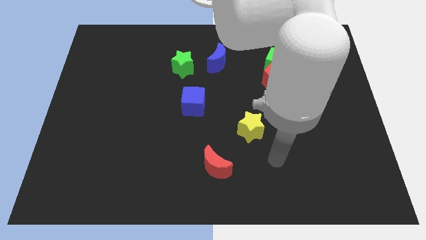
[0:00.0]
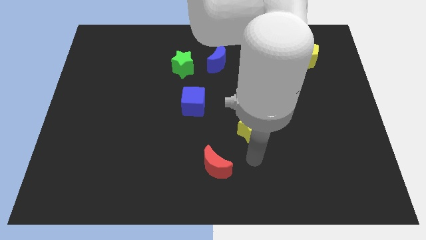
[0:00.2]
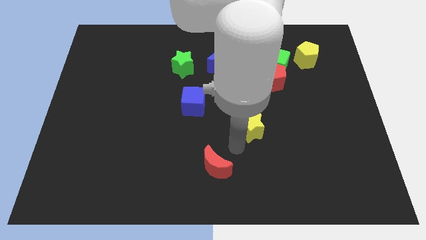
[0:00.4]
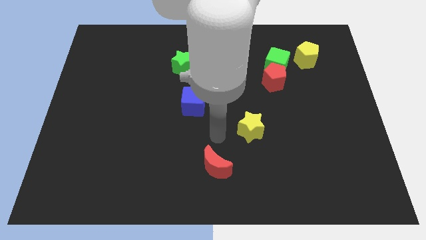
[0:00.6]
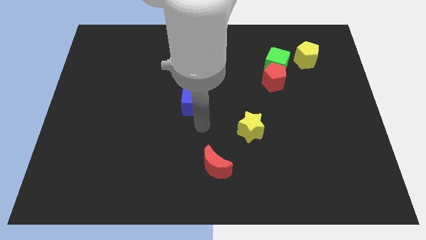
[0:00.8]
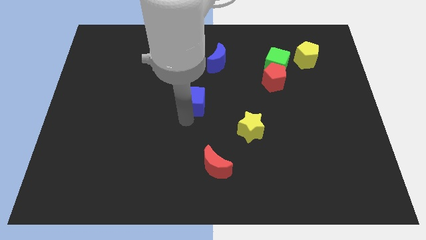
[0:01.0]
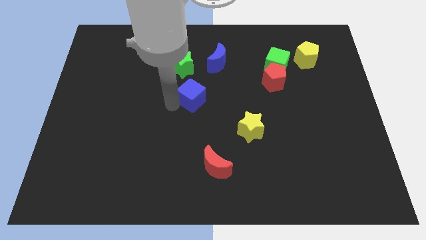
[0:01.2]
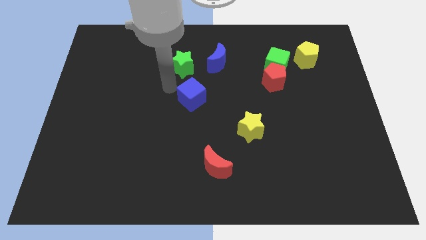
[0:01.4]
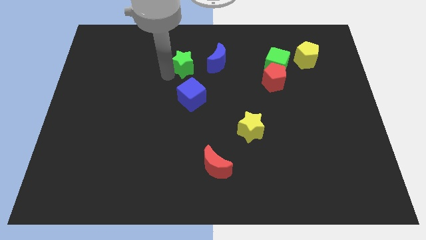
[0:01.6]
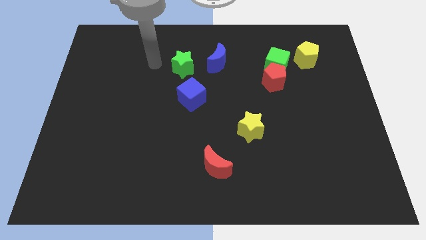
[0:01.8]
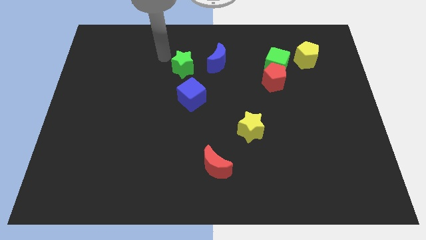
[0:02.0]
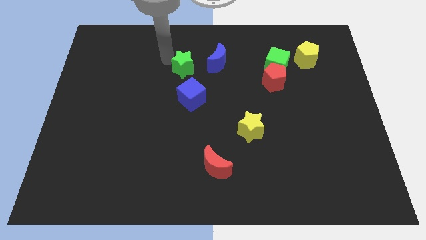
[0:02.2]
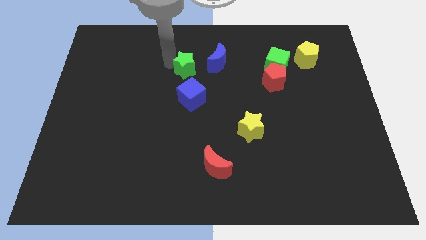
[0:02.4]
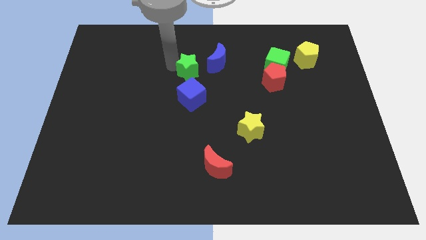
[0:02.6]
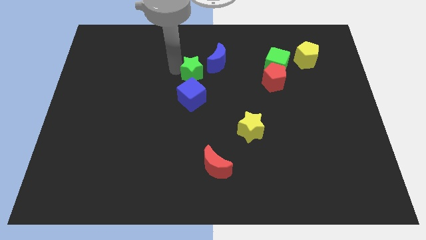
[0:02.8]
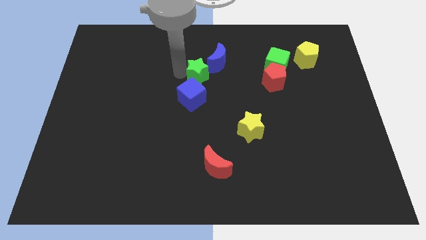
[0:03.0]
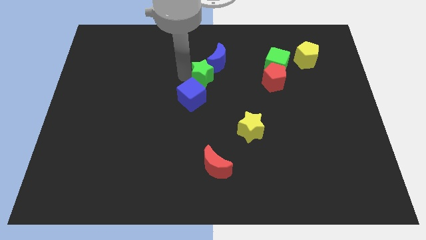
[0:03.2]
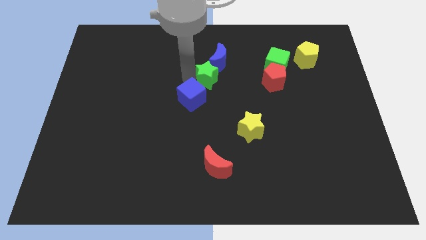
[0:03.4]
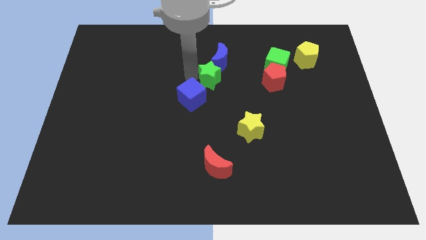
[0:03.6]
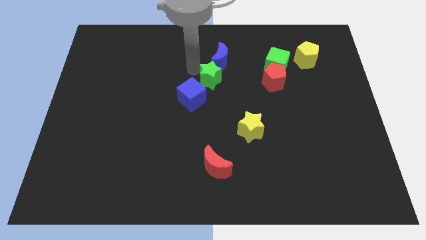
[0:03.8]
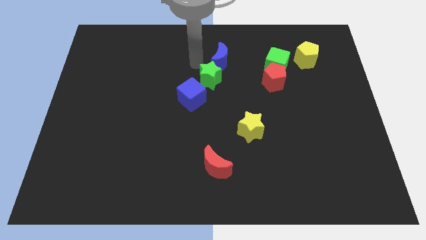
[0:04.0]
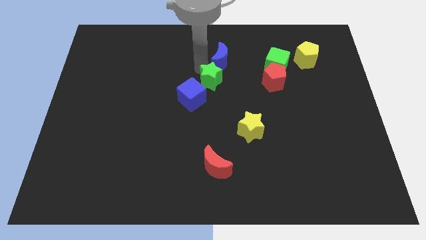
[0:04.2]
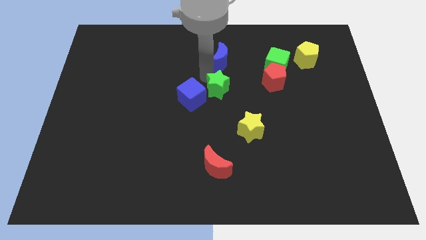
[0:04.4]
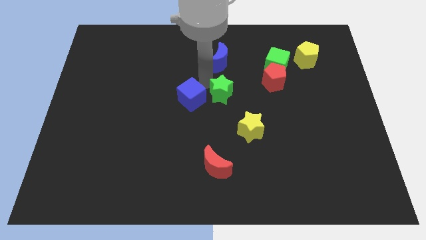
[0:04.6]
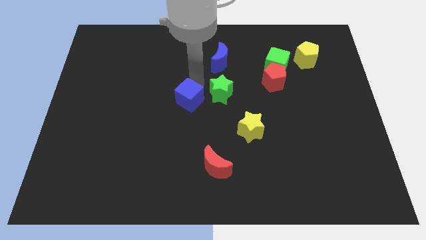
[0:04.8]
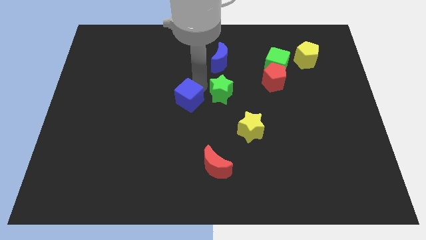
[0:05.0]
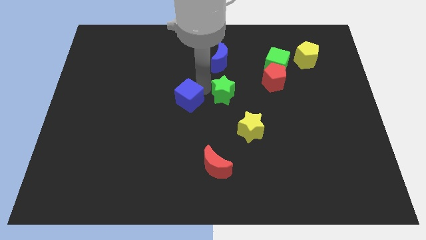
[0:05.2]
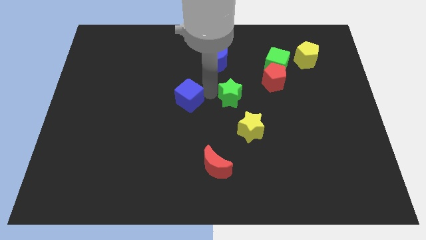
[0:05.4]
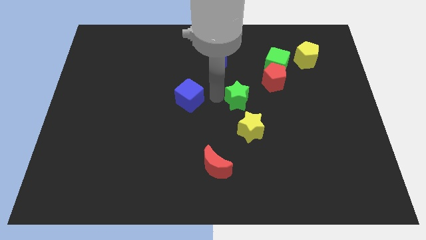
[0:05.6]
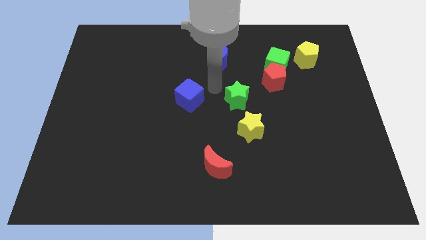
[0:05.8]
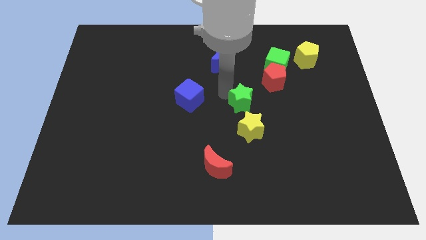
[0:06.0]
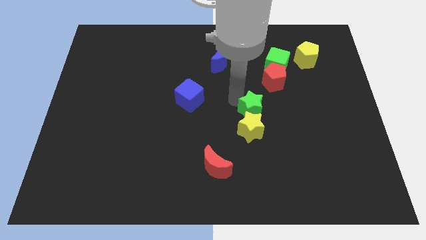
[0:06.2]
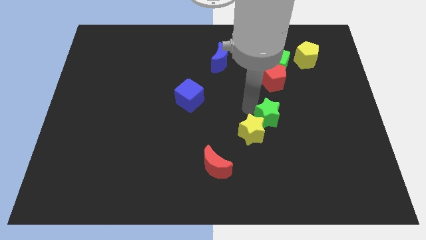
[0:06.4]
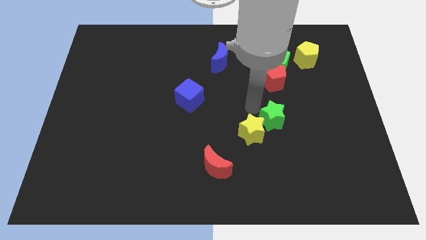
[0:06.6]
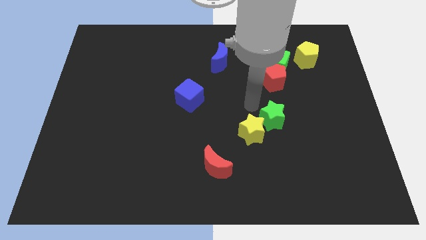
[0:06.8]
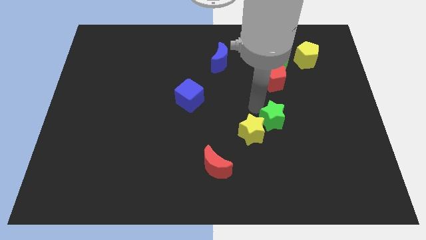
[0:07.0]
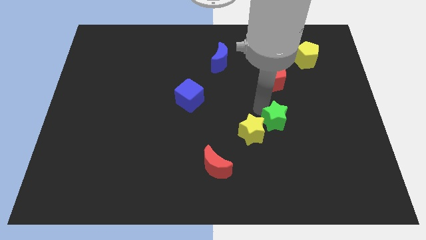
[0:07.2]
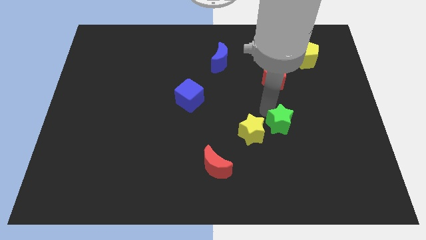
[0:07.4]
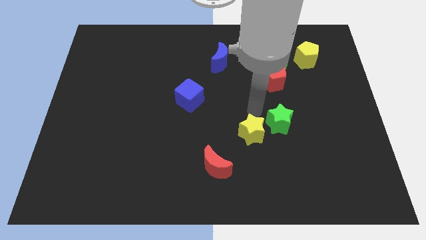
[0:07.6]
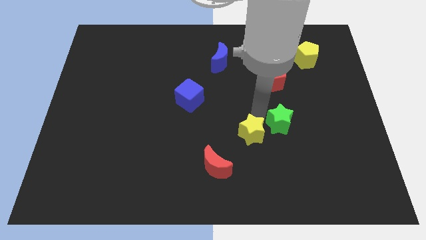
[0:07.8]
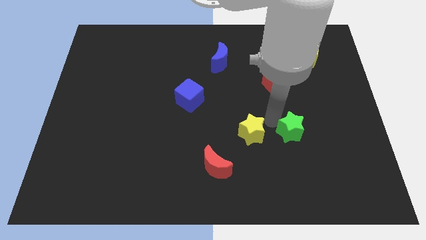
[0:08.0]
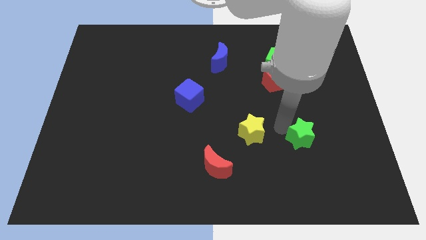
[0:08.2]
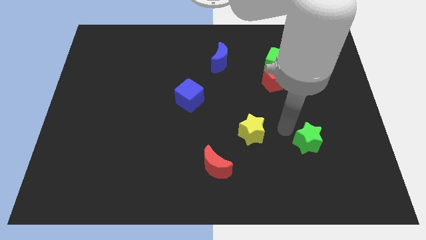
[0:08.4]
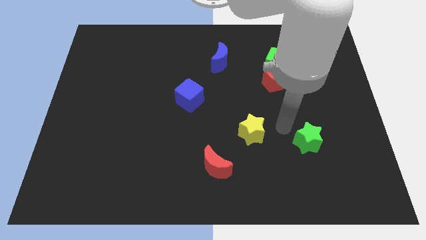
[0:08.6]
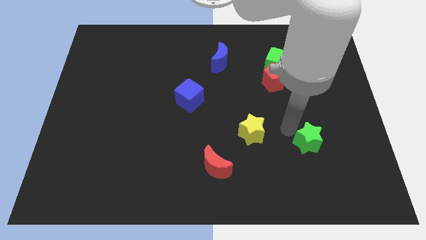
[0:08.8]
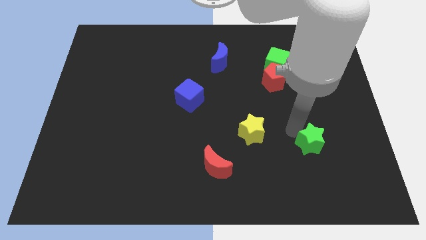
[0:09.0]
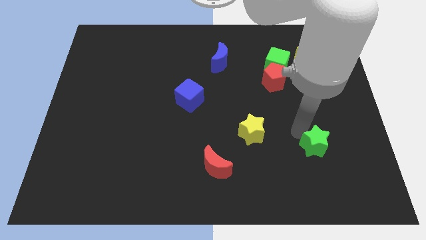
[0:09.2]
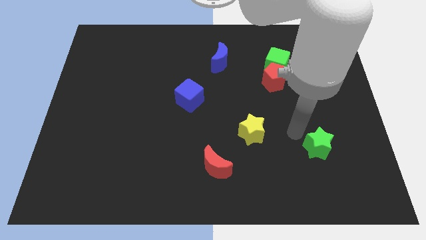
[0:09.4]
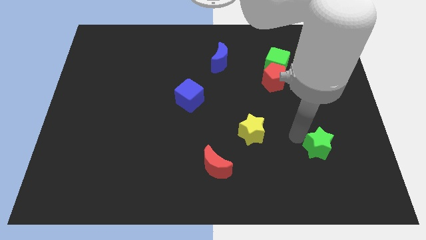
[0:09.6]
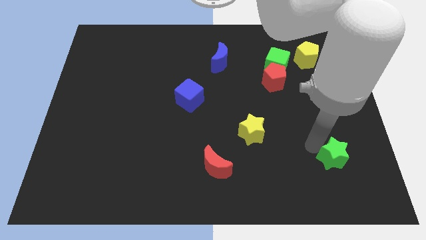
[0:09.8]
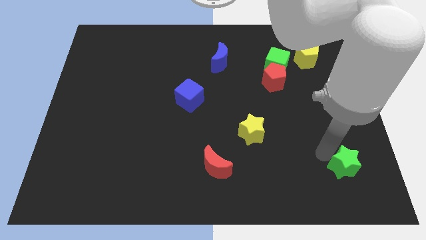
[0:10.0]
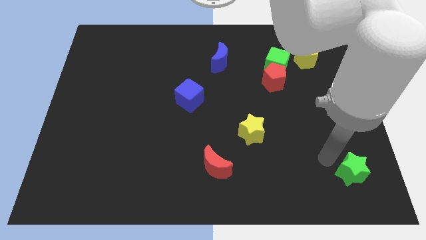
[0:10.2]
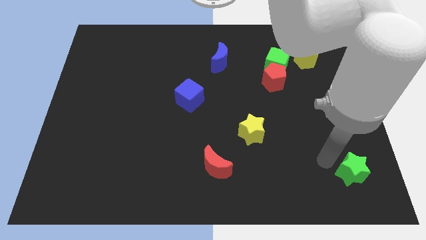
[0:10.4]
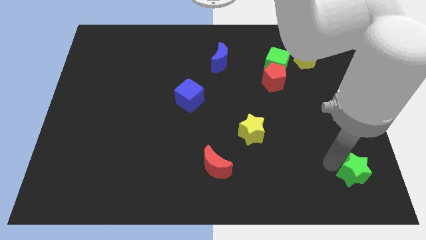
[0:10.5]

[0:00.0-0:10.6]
move the green star to the bottom right corner

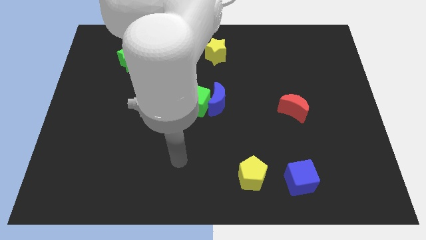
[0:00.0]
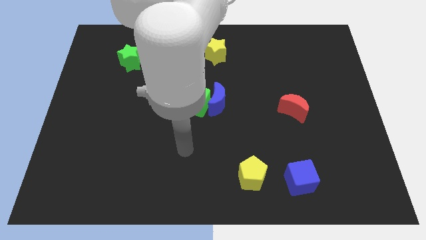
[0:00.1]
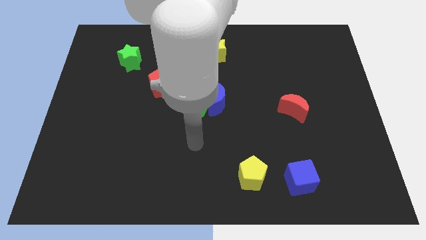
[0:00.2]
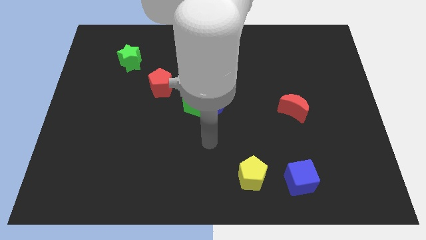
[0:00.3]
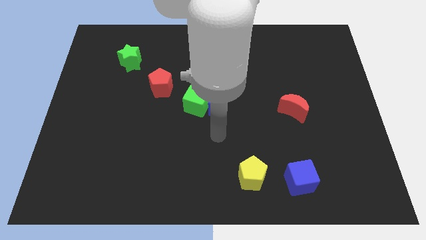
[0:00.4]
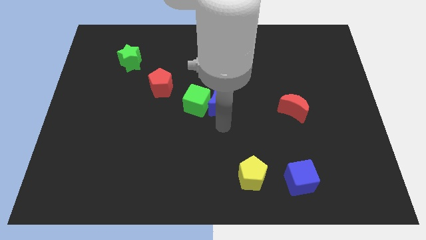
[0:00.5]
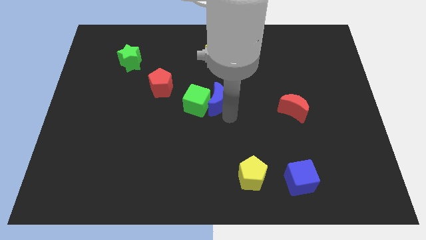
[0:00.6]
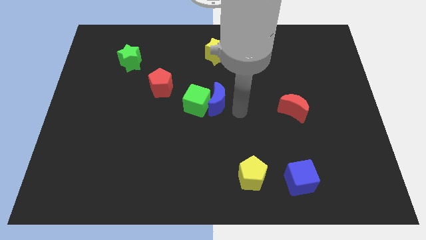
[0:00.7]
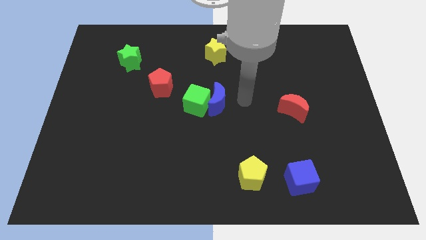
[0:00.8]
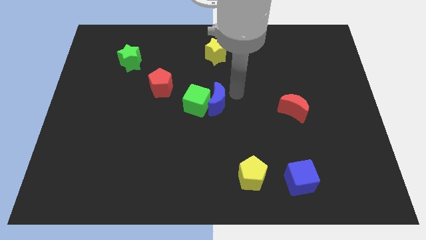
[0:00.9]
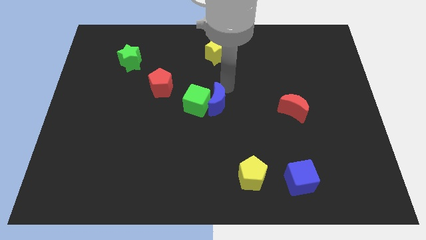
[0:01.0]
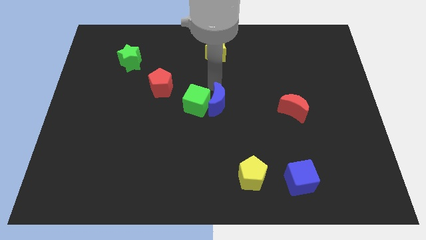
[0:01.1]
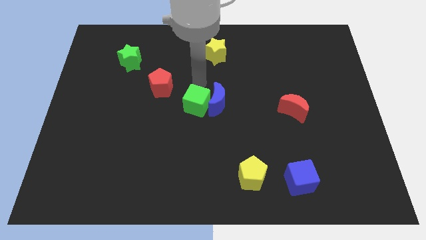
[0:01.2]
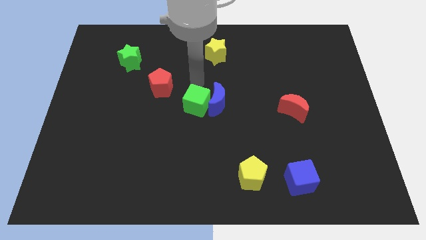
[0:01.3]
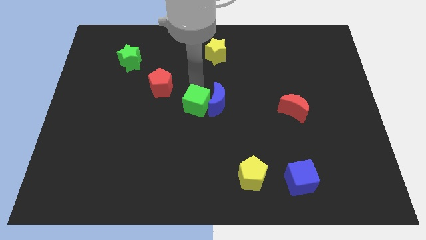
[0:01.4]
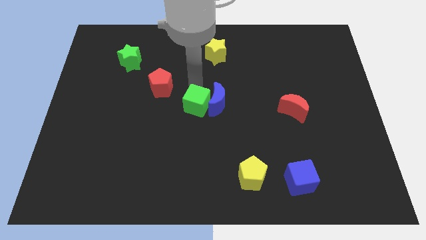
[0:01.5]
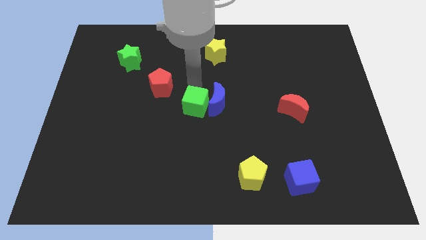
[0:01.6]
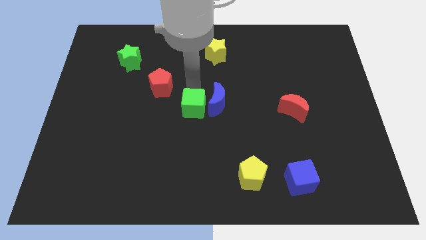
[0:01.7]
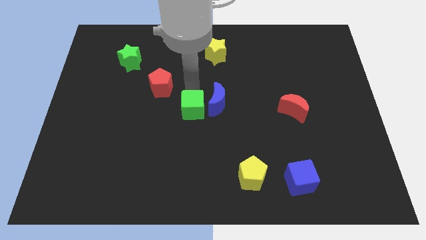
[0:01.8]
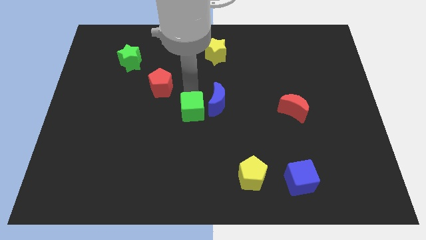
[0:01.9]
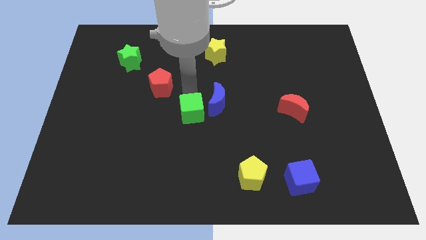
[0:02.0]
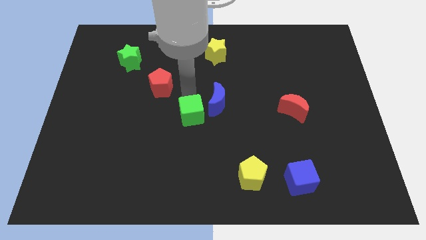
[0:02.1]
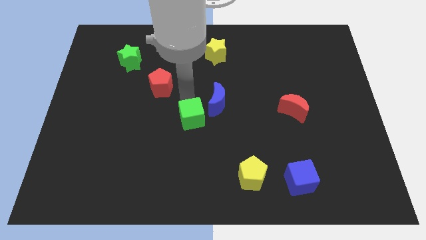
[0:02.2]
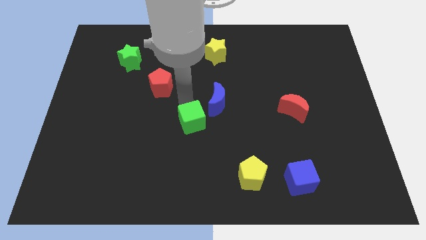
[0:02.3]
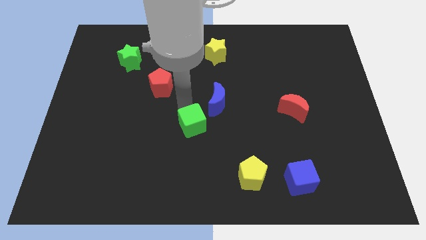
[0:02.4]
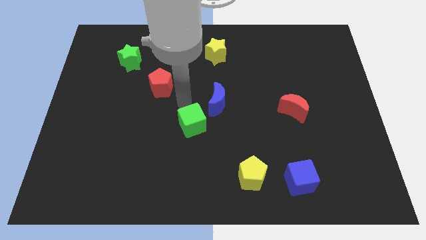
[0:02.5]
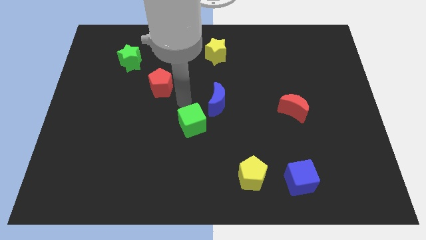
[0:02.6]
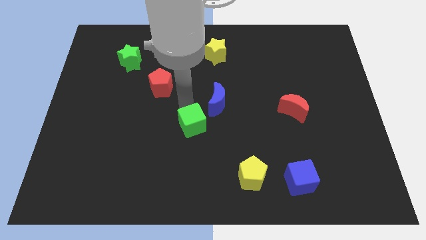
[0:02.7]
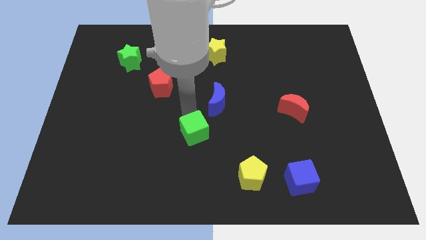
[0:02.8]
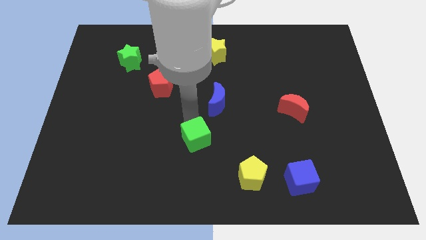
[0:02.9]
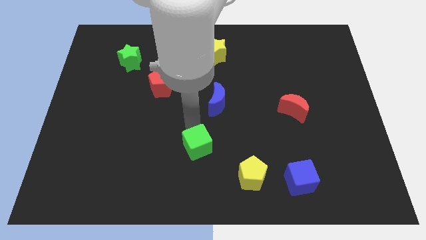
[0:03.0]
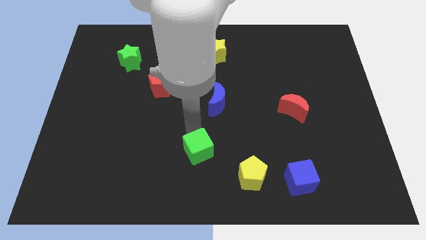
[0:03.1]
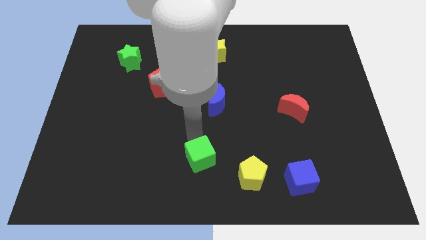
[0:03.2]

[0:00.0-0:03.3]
slide the green cube to the bottom
